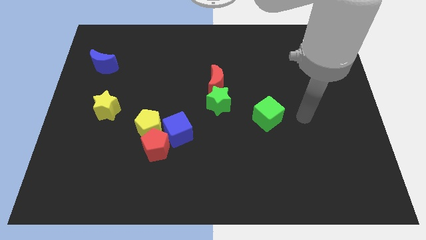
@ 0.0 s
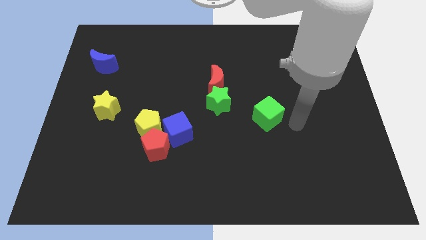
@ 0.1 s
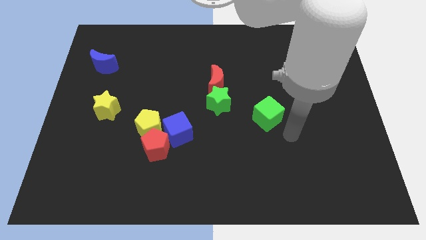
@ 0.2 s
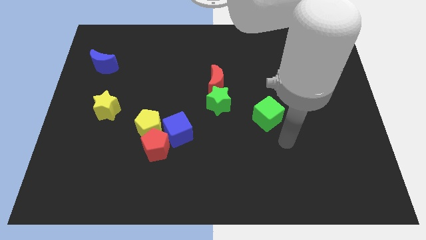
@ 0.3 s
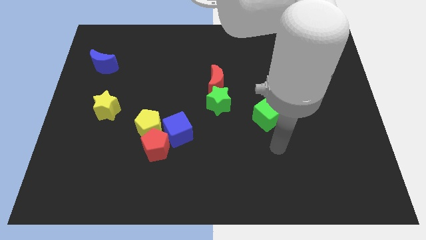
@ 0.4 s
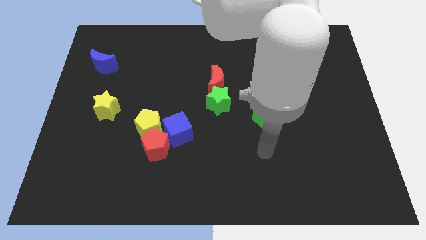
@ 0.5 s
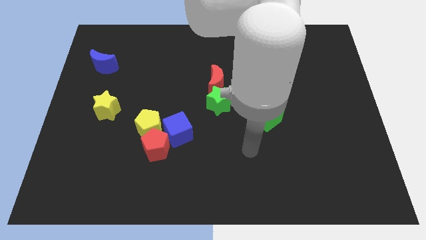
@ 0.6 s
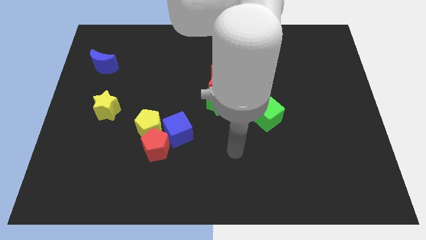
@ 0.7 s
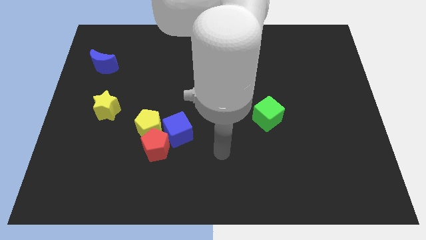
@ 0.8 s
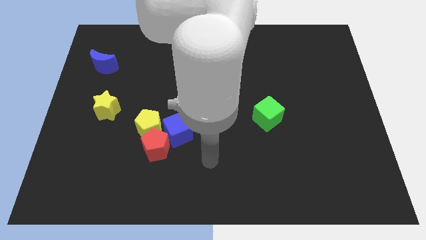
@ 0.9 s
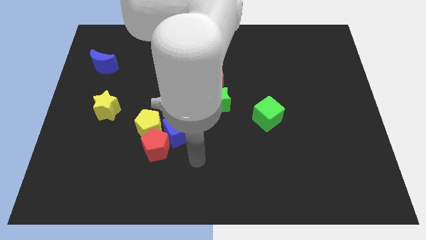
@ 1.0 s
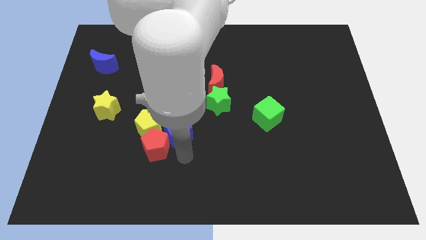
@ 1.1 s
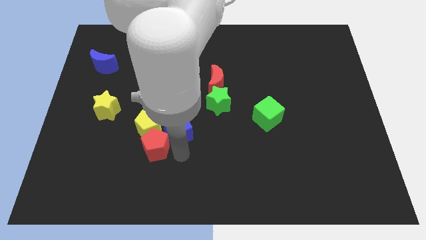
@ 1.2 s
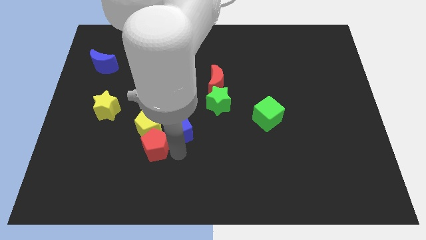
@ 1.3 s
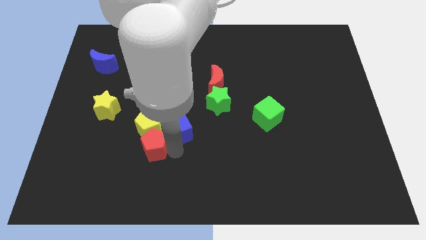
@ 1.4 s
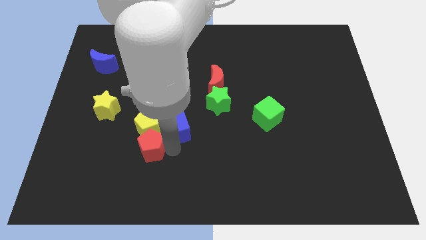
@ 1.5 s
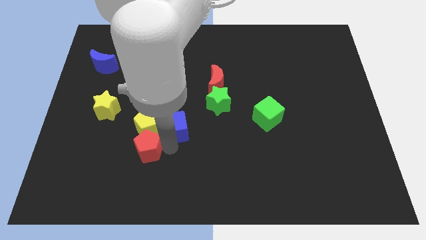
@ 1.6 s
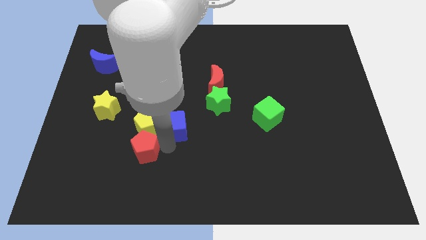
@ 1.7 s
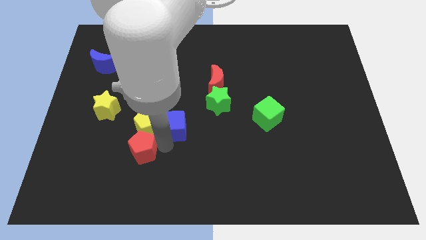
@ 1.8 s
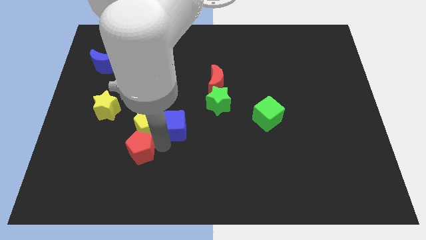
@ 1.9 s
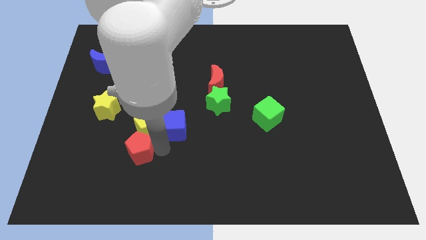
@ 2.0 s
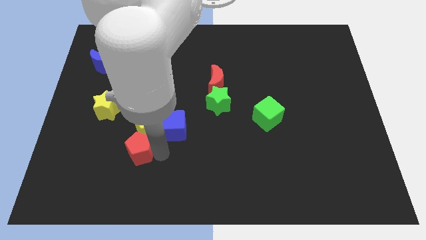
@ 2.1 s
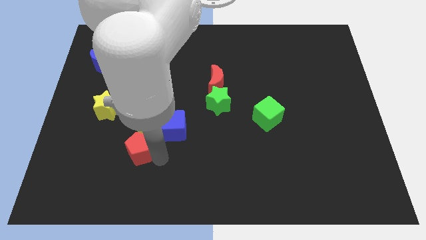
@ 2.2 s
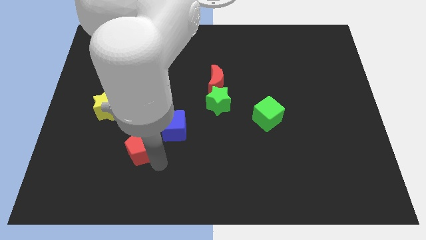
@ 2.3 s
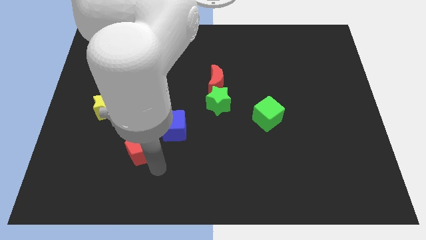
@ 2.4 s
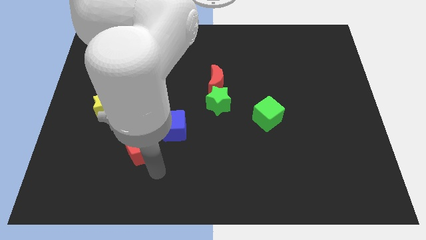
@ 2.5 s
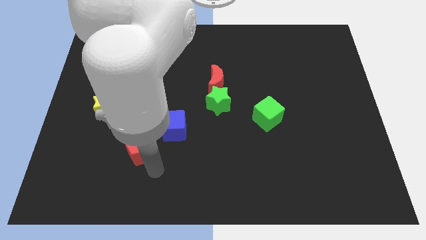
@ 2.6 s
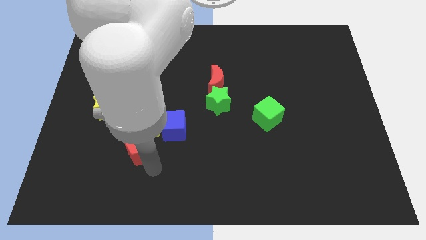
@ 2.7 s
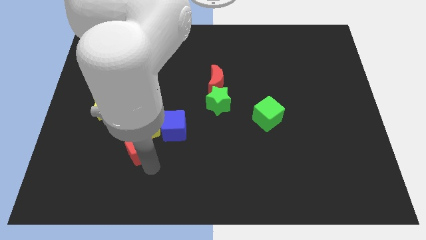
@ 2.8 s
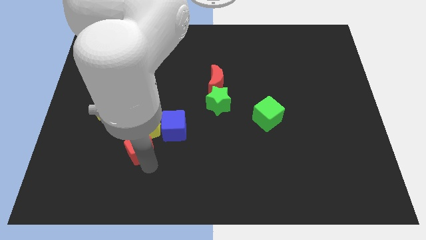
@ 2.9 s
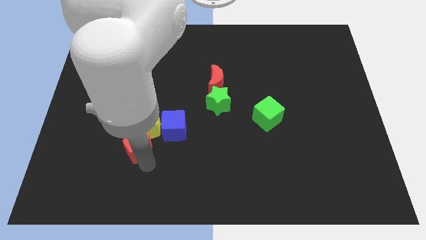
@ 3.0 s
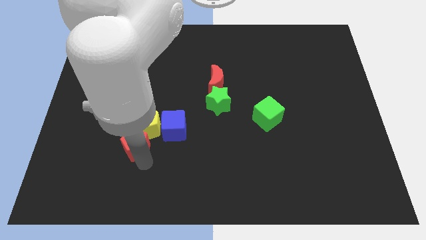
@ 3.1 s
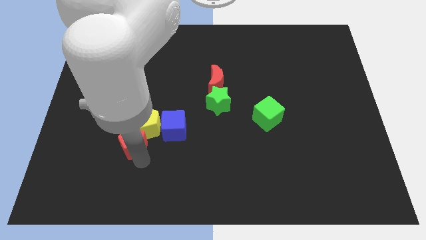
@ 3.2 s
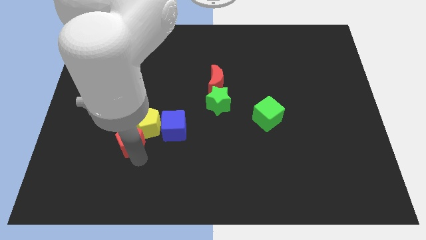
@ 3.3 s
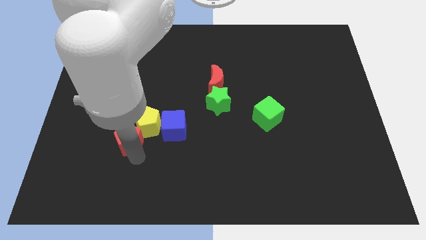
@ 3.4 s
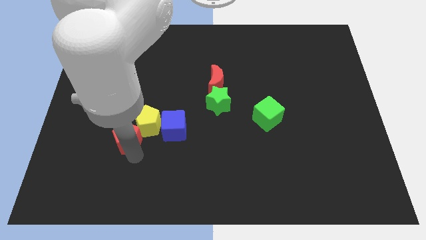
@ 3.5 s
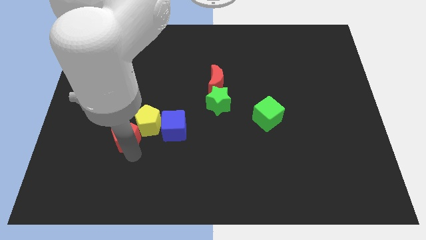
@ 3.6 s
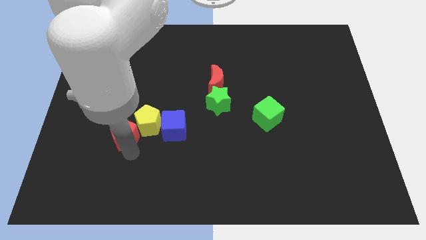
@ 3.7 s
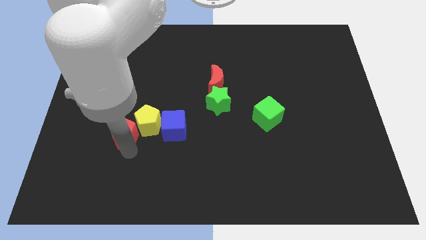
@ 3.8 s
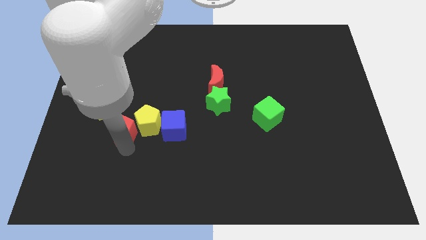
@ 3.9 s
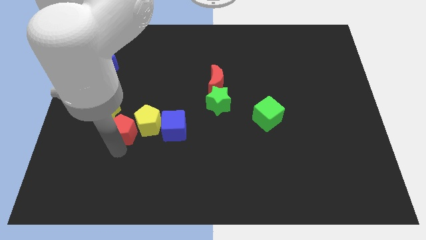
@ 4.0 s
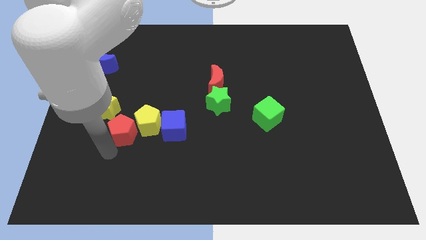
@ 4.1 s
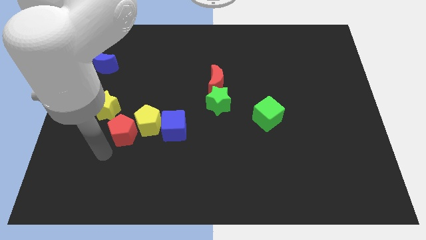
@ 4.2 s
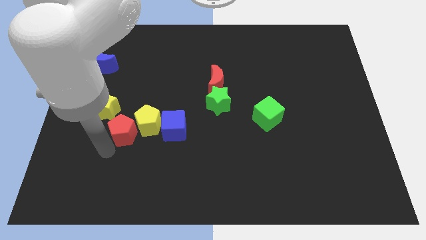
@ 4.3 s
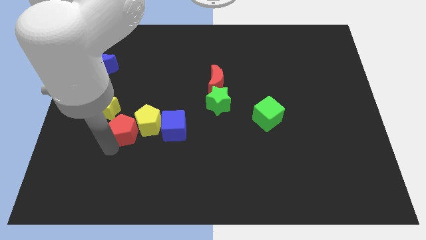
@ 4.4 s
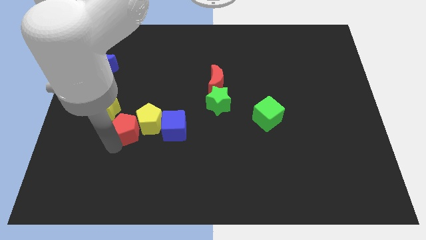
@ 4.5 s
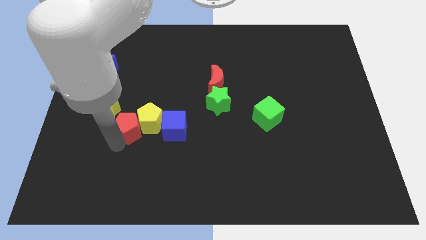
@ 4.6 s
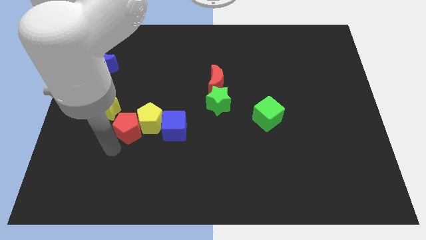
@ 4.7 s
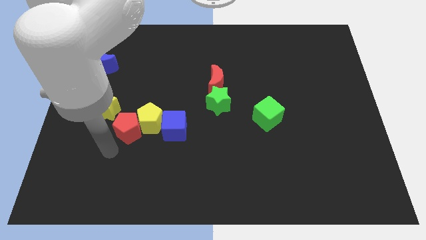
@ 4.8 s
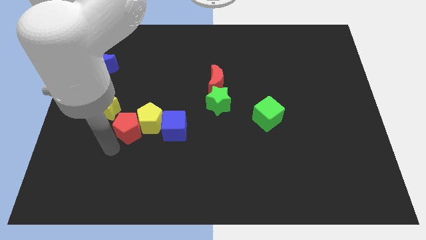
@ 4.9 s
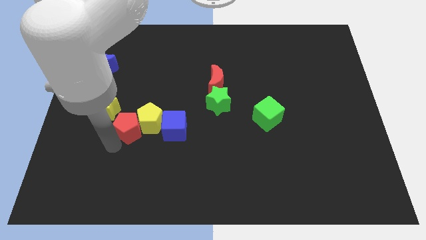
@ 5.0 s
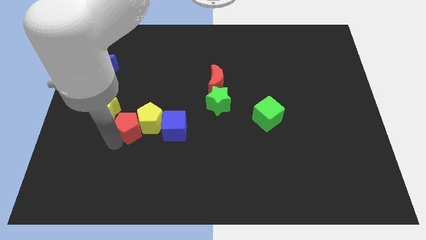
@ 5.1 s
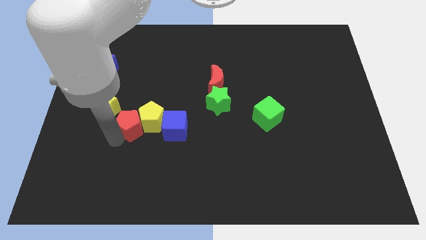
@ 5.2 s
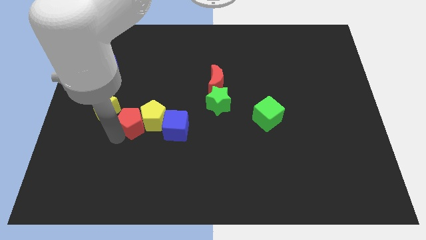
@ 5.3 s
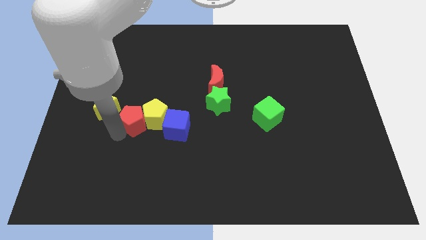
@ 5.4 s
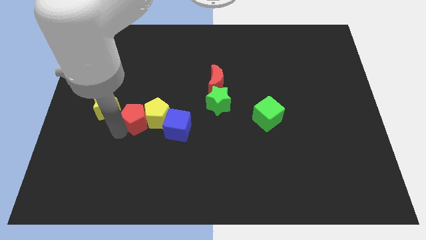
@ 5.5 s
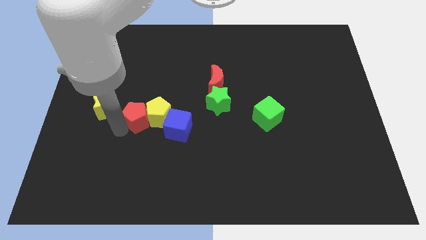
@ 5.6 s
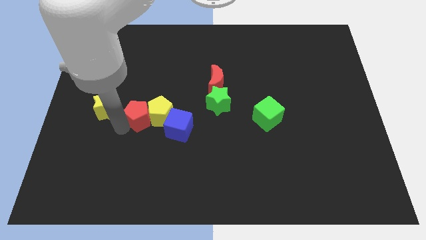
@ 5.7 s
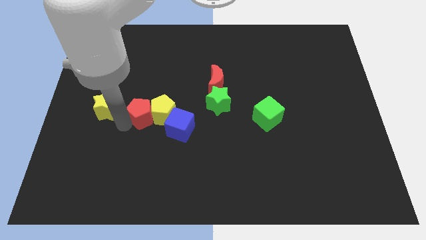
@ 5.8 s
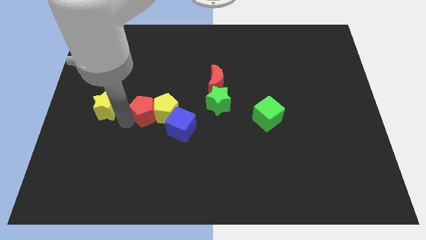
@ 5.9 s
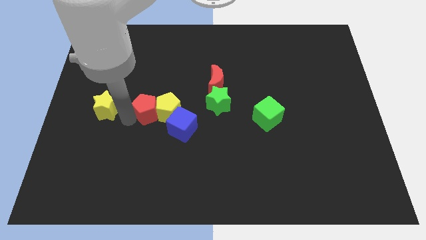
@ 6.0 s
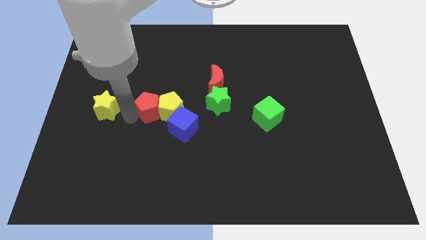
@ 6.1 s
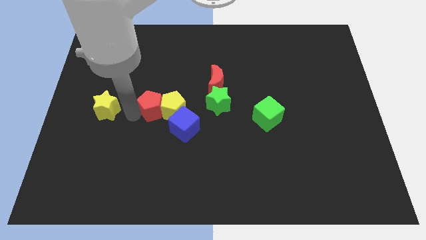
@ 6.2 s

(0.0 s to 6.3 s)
slide the red pentagon to the left of the green star

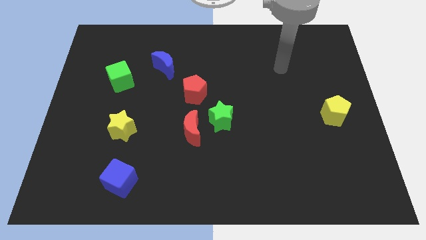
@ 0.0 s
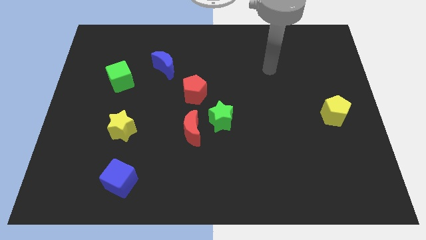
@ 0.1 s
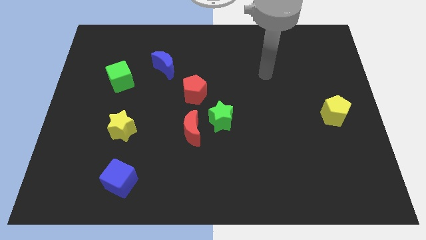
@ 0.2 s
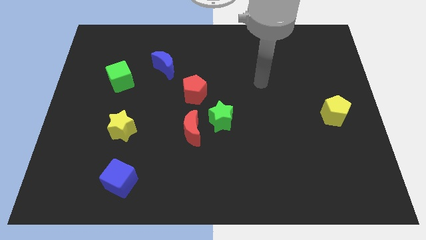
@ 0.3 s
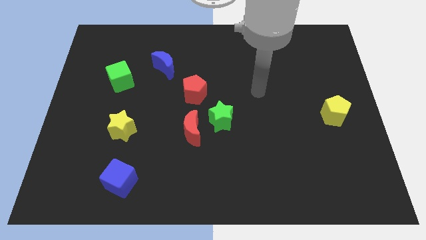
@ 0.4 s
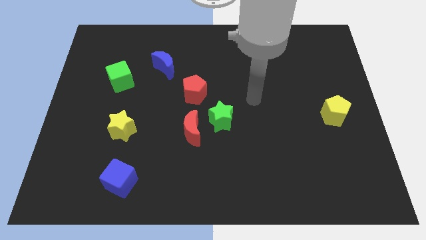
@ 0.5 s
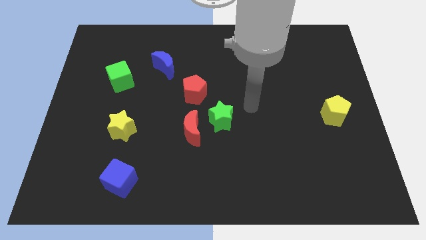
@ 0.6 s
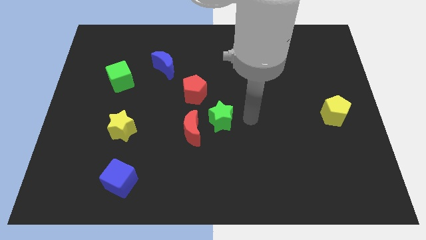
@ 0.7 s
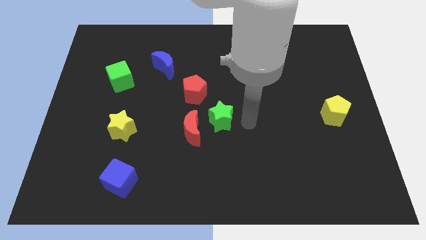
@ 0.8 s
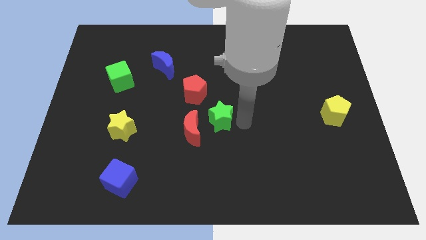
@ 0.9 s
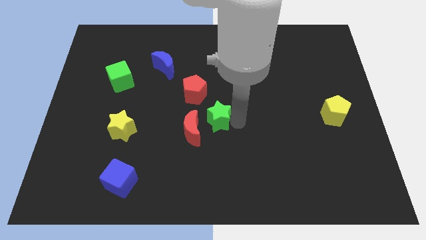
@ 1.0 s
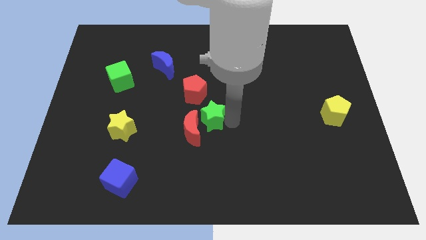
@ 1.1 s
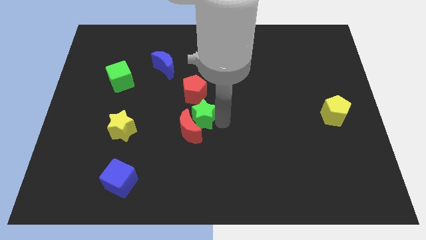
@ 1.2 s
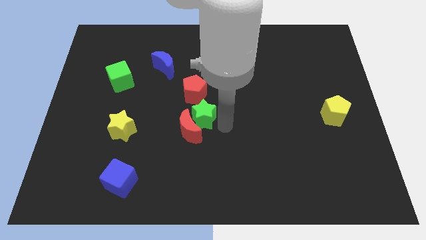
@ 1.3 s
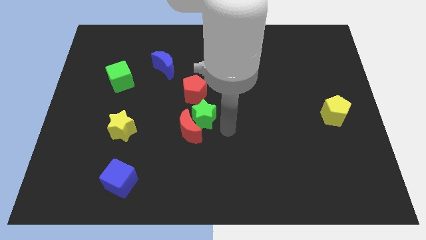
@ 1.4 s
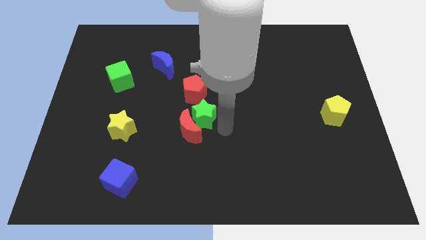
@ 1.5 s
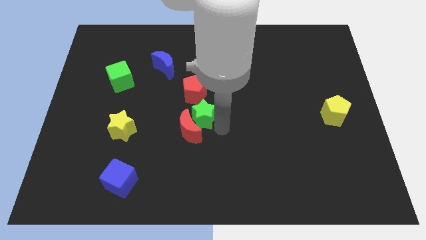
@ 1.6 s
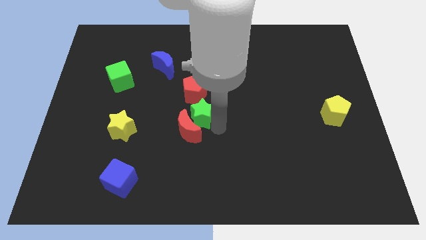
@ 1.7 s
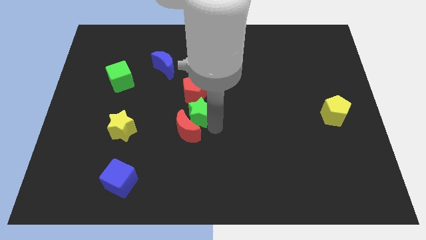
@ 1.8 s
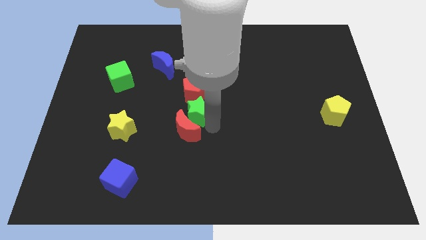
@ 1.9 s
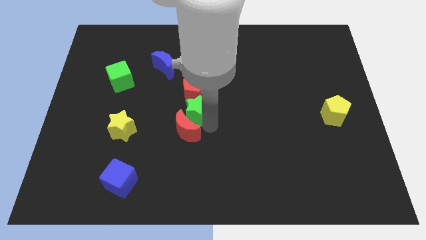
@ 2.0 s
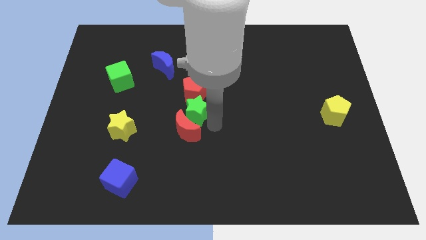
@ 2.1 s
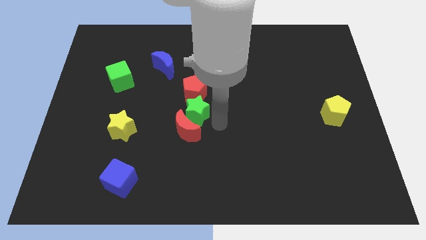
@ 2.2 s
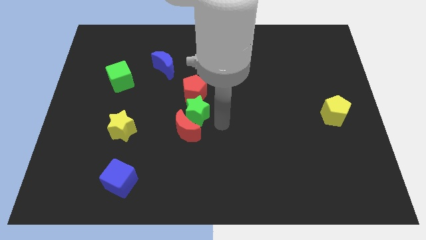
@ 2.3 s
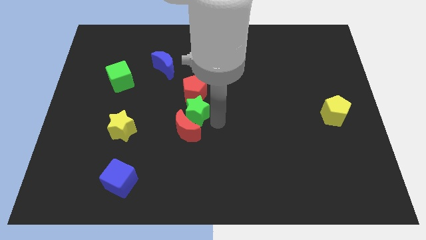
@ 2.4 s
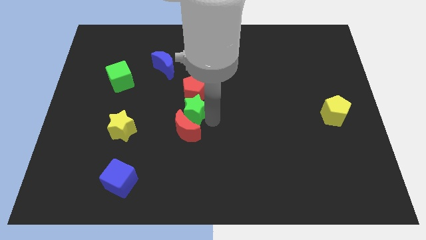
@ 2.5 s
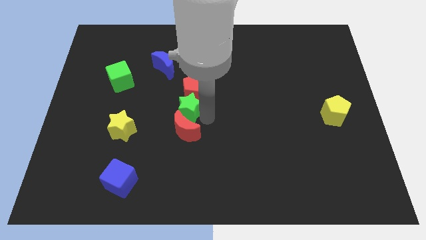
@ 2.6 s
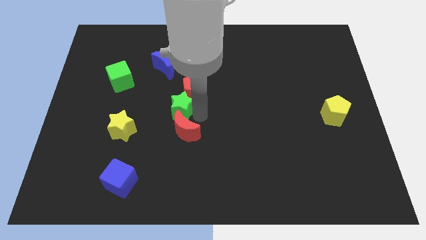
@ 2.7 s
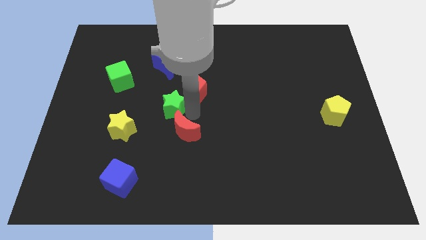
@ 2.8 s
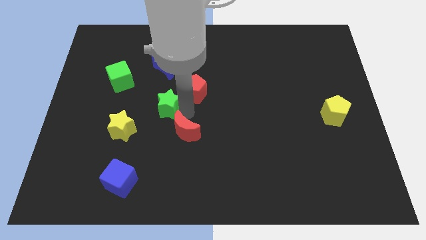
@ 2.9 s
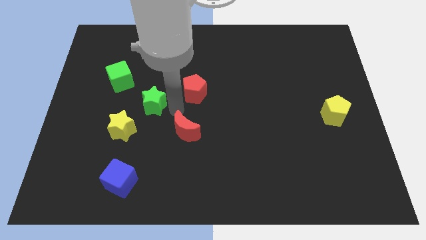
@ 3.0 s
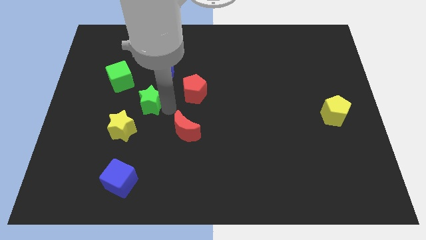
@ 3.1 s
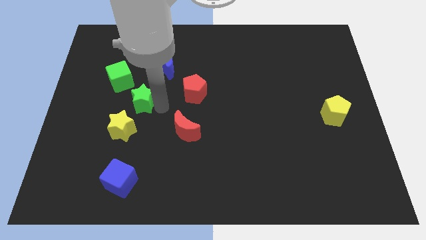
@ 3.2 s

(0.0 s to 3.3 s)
slide the green star to the top of the yellow star
